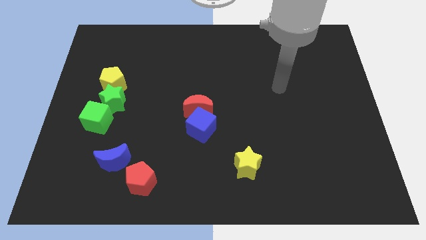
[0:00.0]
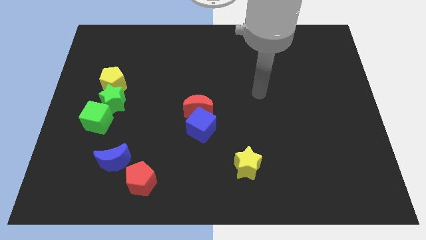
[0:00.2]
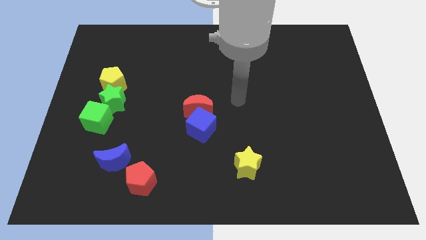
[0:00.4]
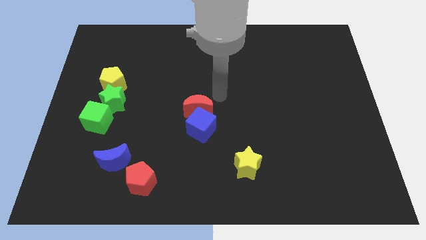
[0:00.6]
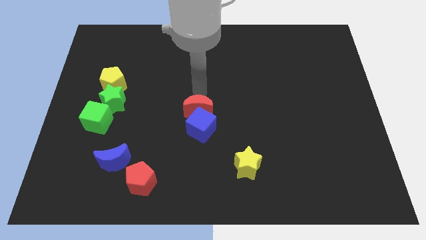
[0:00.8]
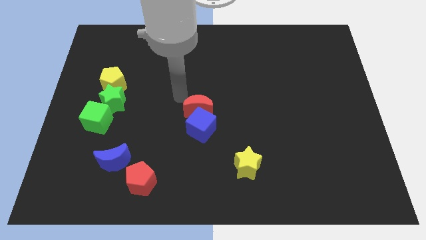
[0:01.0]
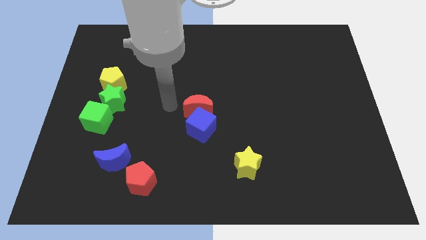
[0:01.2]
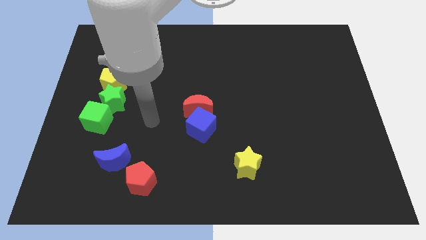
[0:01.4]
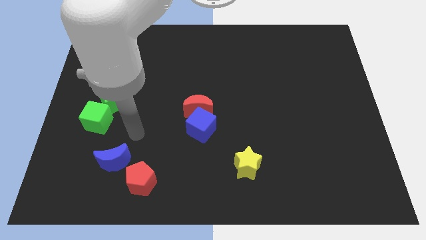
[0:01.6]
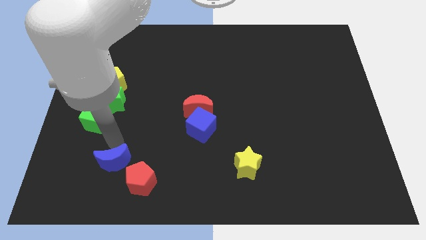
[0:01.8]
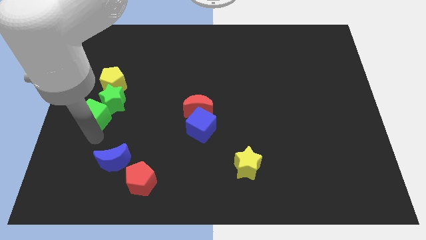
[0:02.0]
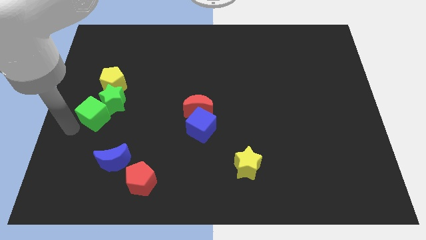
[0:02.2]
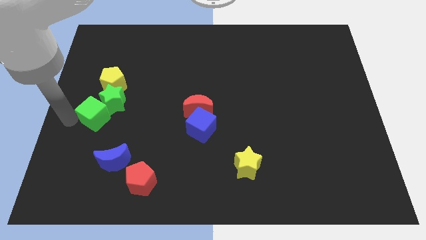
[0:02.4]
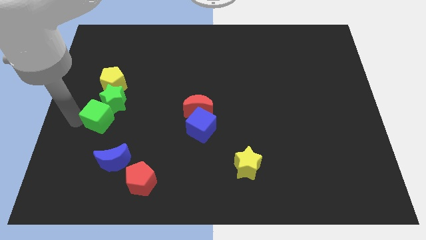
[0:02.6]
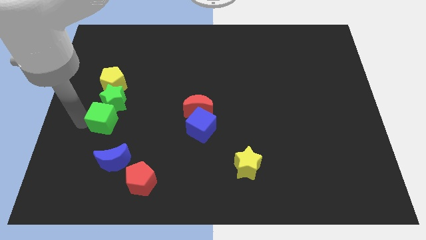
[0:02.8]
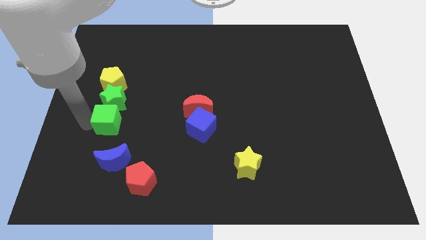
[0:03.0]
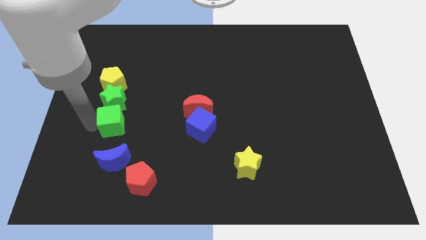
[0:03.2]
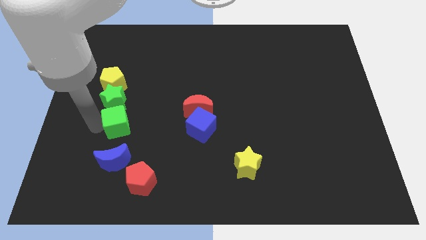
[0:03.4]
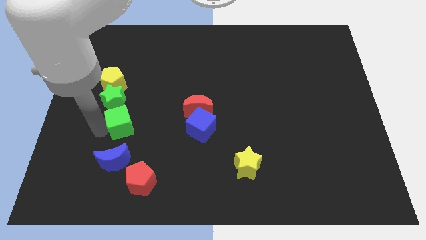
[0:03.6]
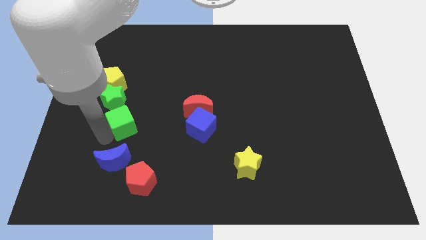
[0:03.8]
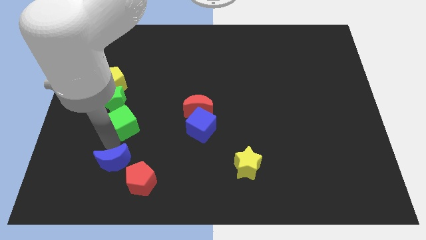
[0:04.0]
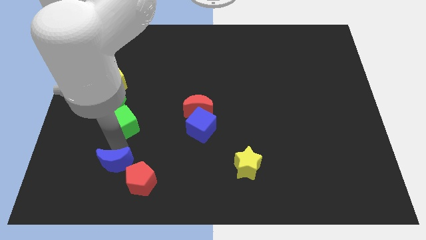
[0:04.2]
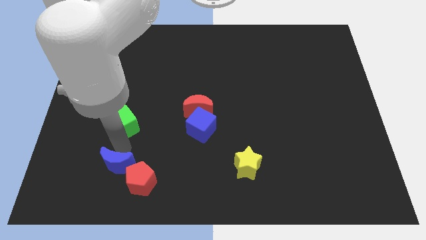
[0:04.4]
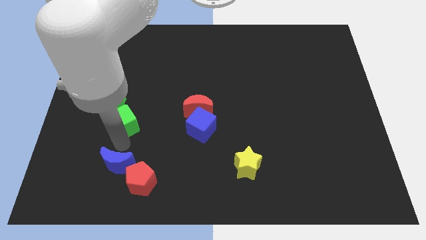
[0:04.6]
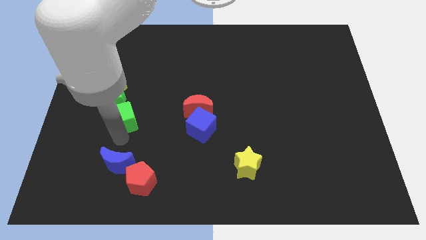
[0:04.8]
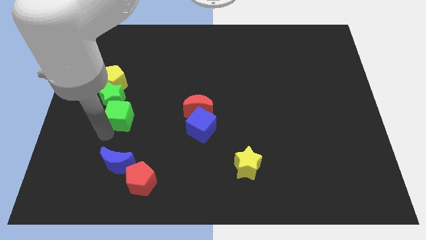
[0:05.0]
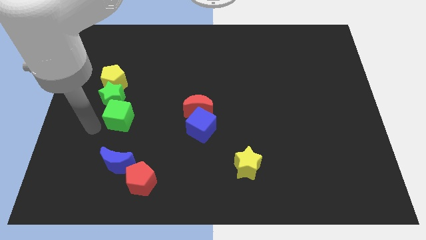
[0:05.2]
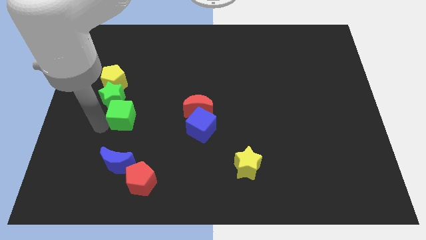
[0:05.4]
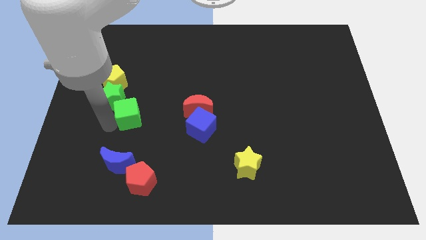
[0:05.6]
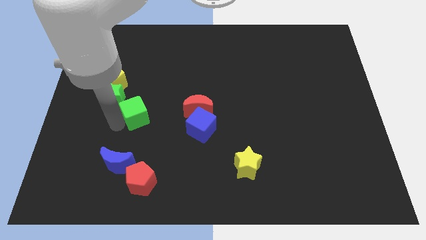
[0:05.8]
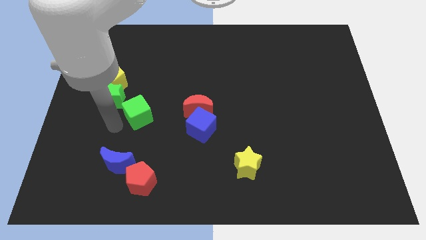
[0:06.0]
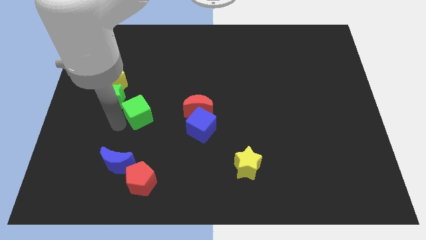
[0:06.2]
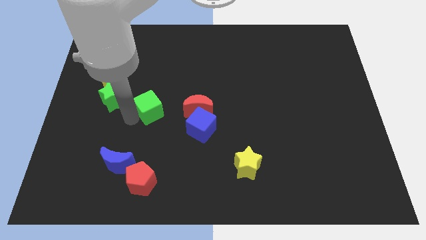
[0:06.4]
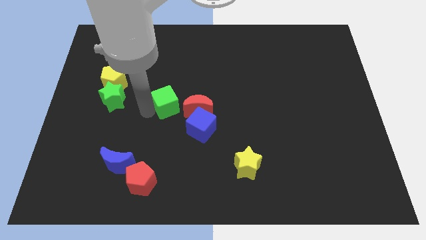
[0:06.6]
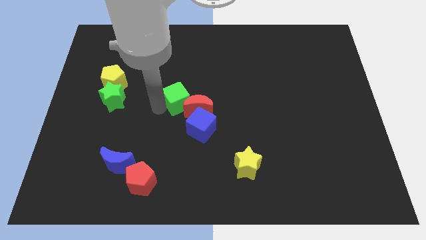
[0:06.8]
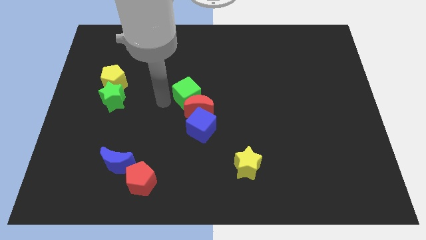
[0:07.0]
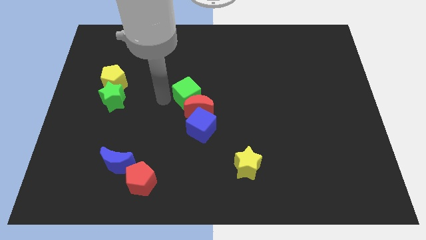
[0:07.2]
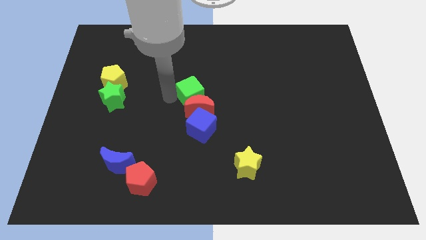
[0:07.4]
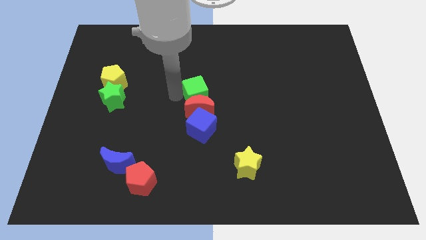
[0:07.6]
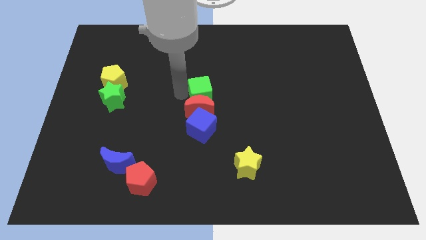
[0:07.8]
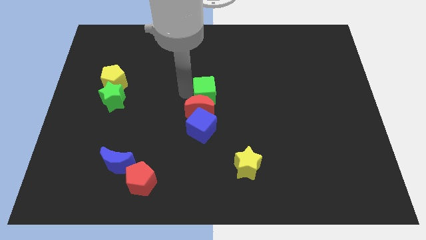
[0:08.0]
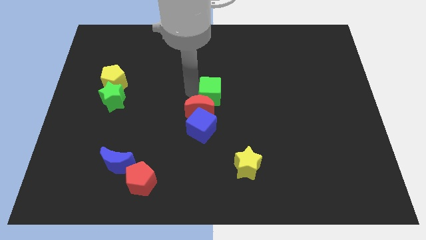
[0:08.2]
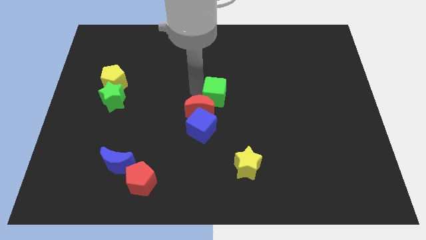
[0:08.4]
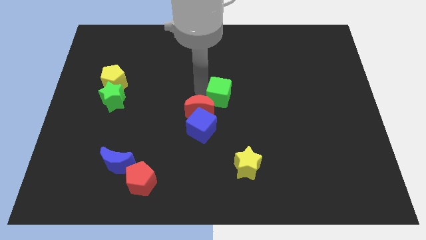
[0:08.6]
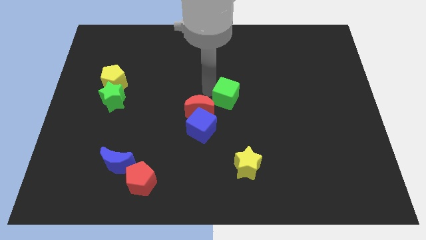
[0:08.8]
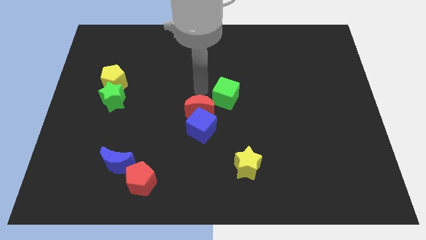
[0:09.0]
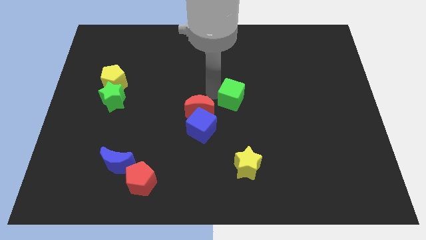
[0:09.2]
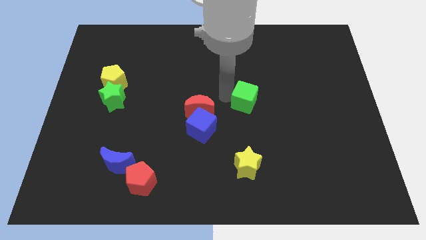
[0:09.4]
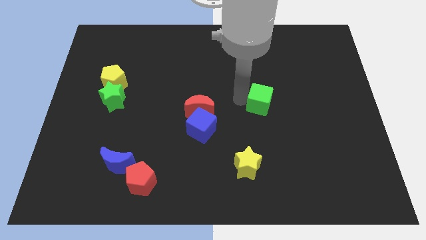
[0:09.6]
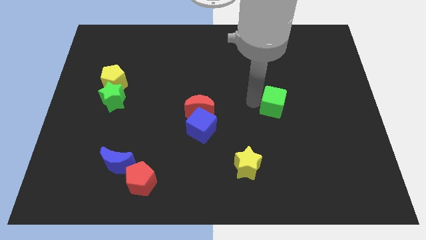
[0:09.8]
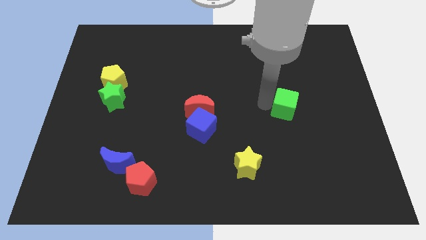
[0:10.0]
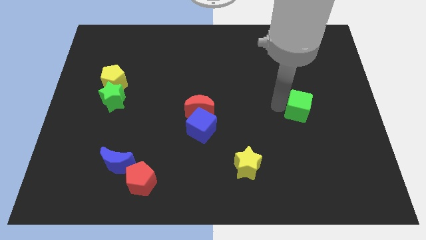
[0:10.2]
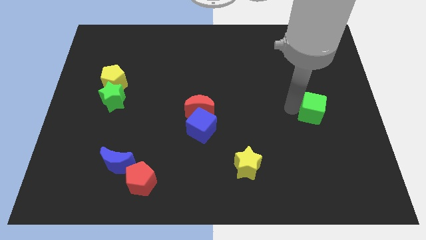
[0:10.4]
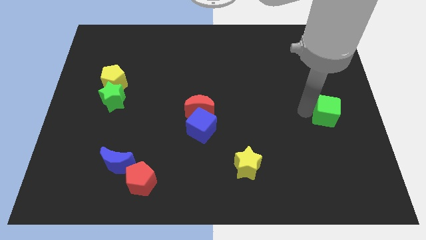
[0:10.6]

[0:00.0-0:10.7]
put the green cube to the right side

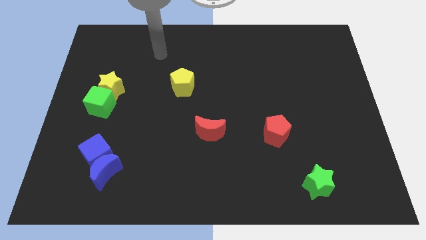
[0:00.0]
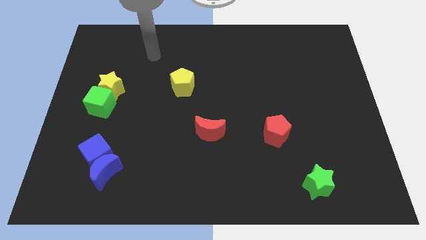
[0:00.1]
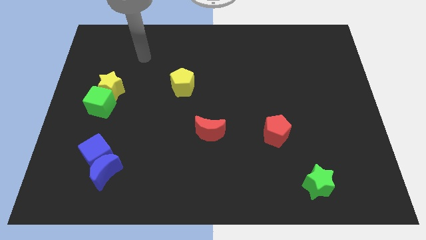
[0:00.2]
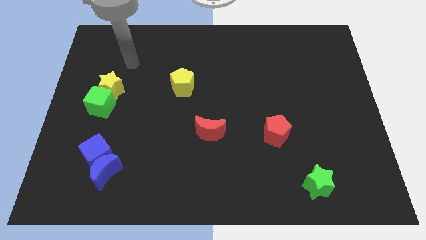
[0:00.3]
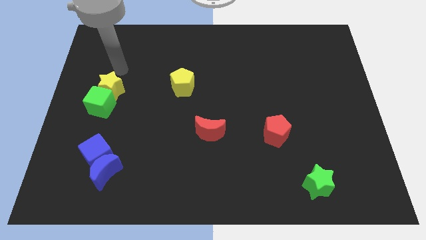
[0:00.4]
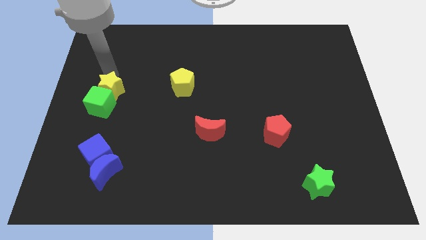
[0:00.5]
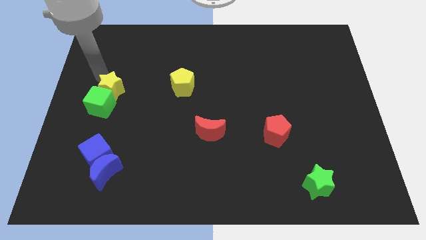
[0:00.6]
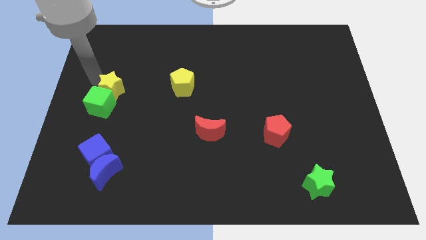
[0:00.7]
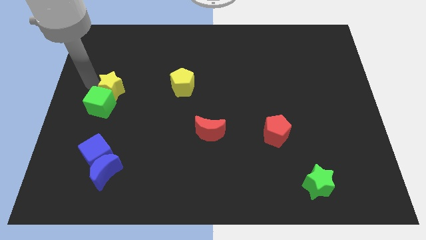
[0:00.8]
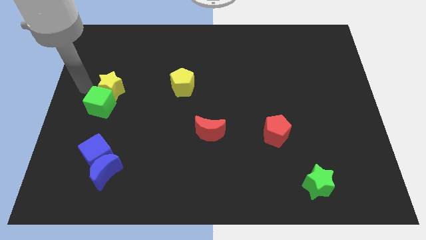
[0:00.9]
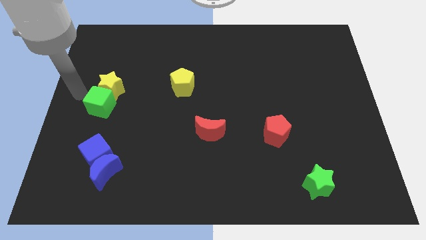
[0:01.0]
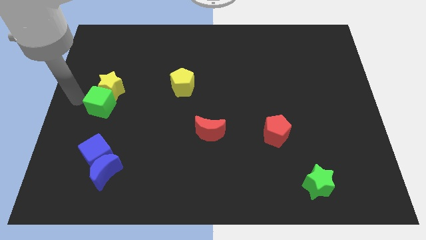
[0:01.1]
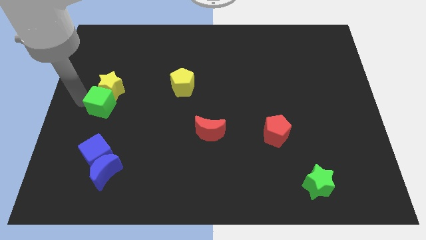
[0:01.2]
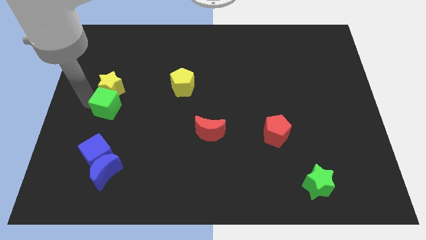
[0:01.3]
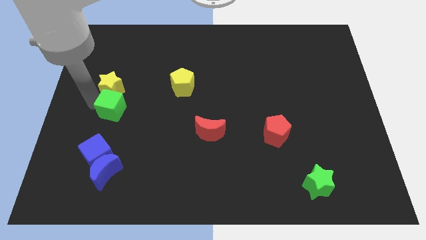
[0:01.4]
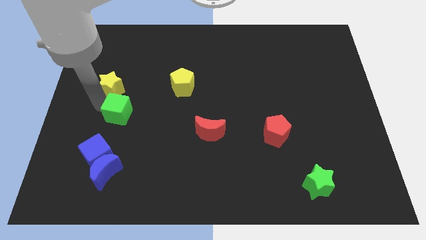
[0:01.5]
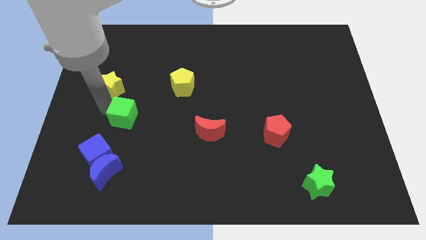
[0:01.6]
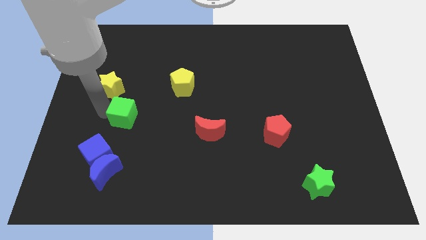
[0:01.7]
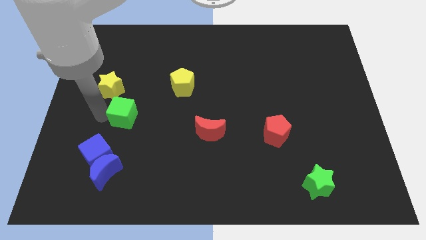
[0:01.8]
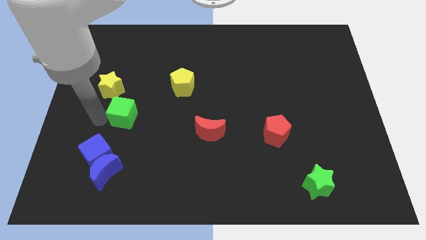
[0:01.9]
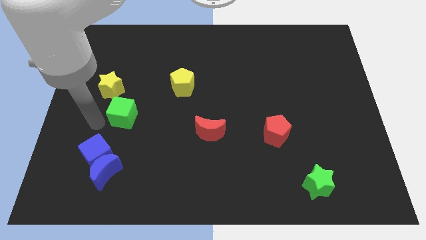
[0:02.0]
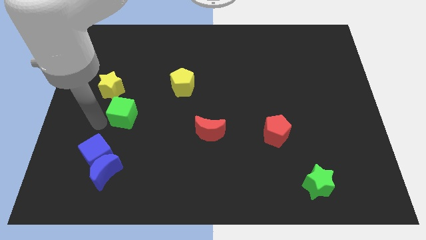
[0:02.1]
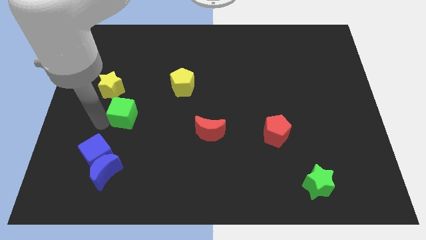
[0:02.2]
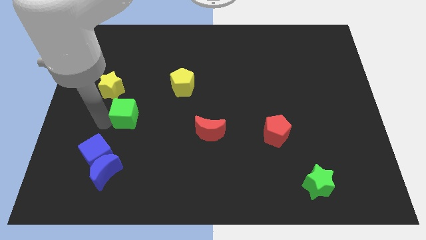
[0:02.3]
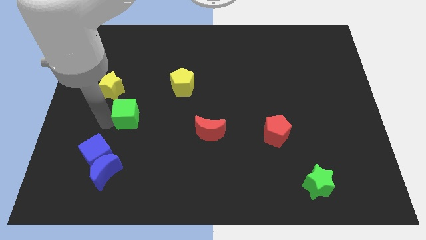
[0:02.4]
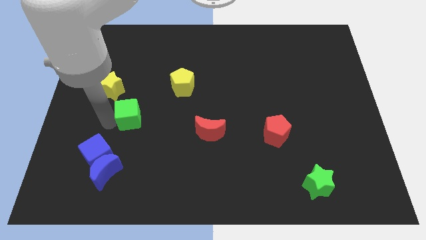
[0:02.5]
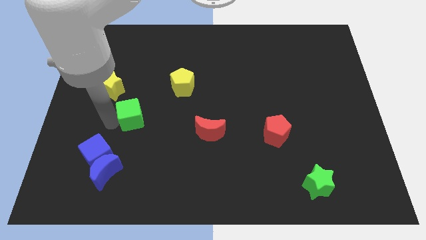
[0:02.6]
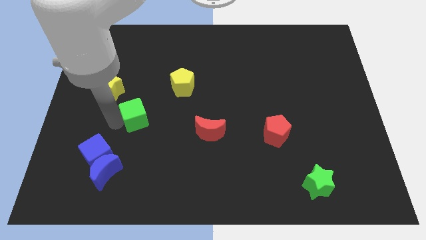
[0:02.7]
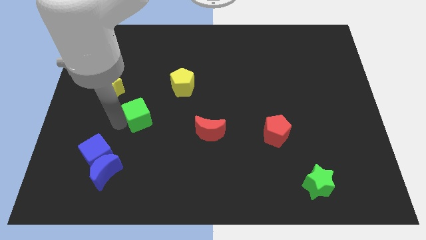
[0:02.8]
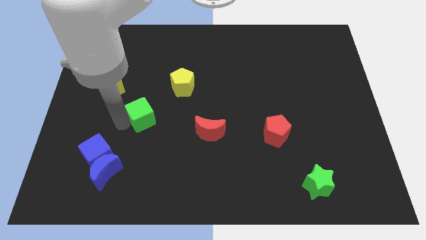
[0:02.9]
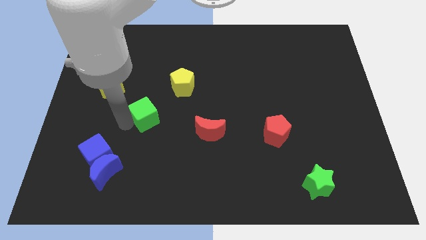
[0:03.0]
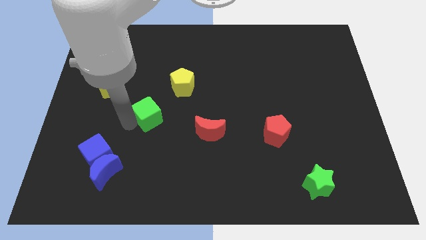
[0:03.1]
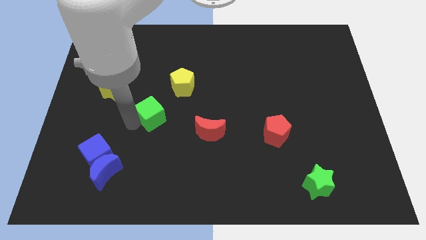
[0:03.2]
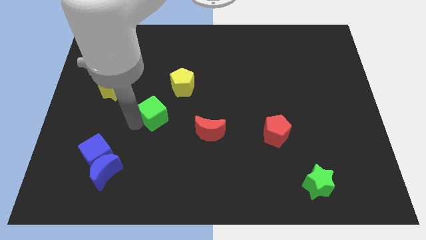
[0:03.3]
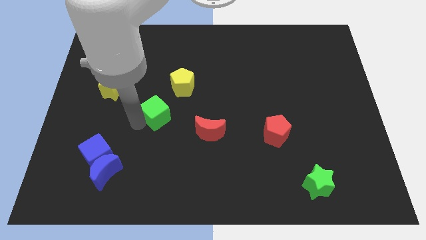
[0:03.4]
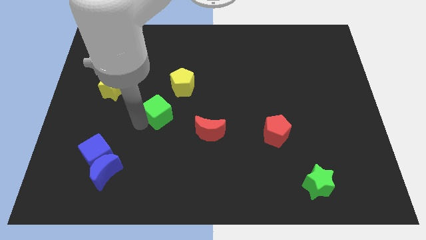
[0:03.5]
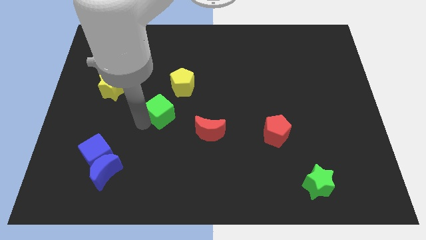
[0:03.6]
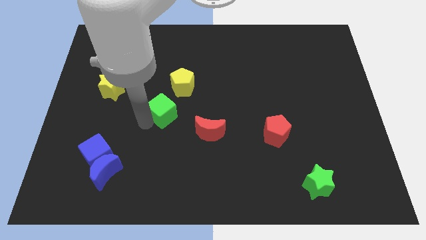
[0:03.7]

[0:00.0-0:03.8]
put the green cube to the middle
